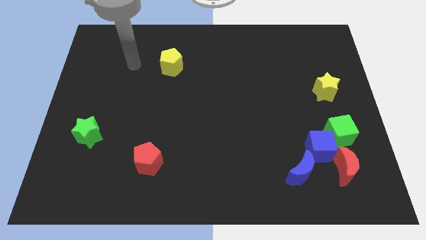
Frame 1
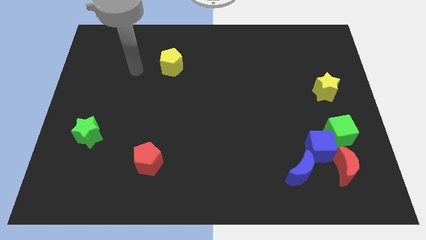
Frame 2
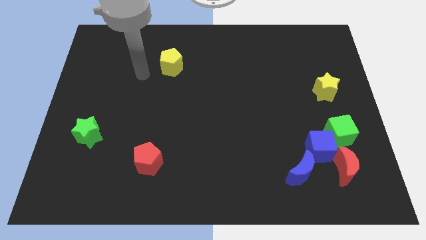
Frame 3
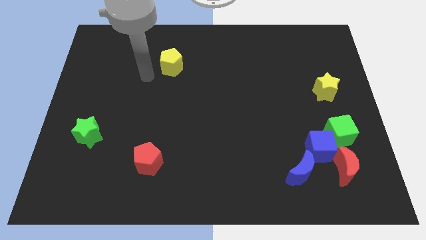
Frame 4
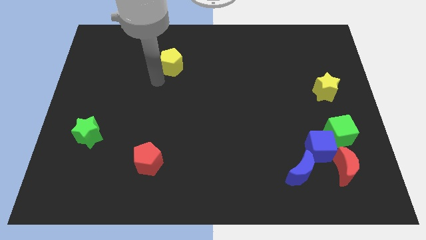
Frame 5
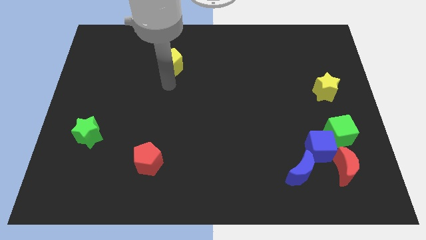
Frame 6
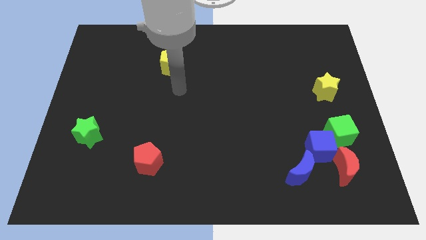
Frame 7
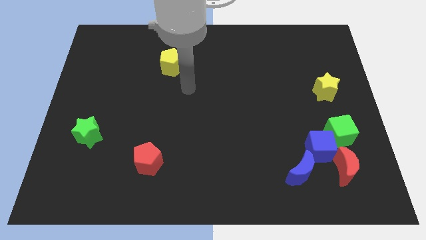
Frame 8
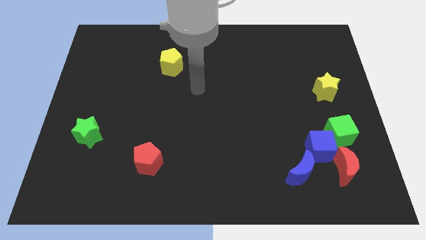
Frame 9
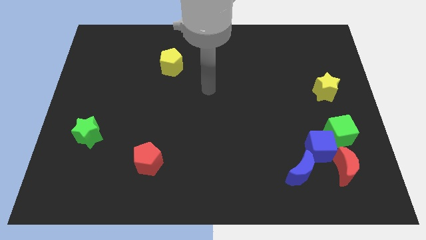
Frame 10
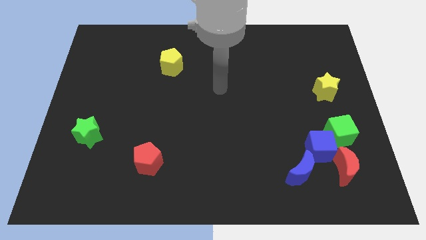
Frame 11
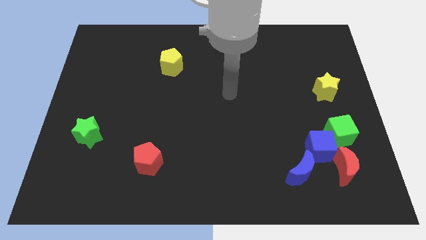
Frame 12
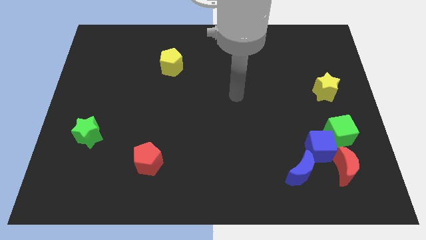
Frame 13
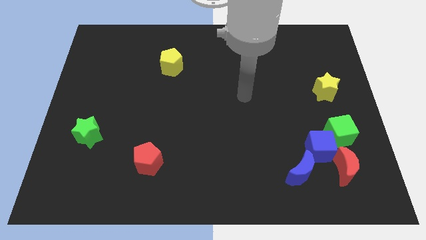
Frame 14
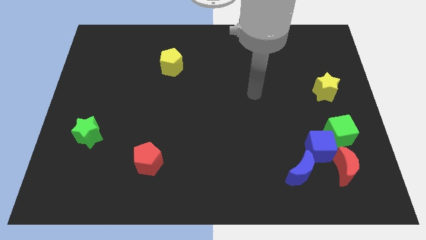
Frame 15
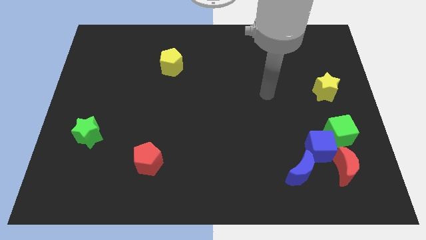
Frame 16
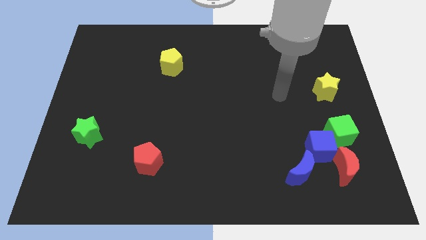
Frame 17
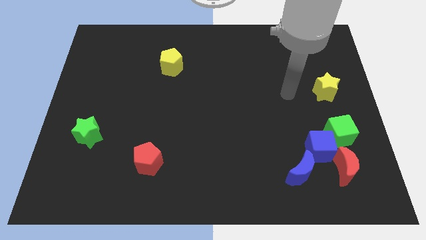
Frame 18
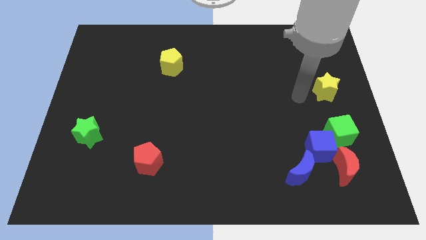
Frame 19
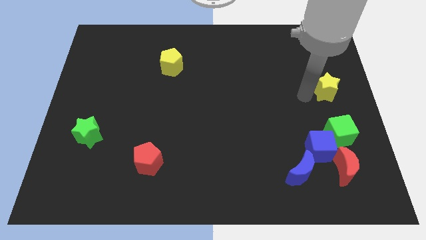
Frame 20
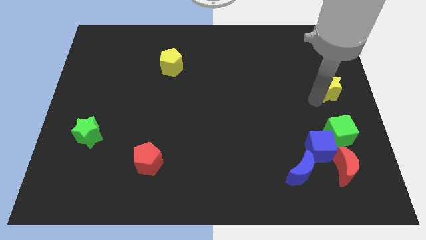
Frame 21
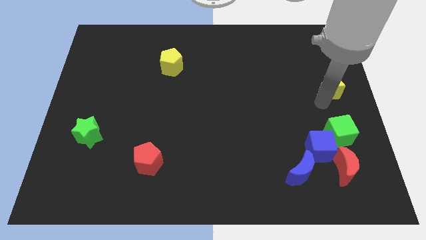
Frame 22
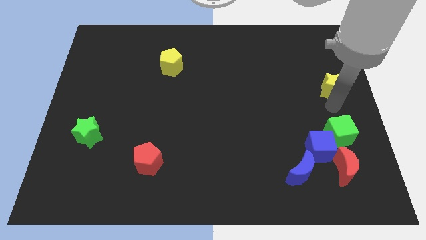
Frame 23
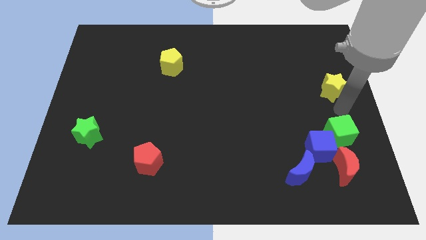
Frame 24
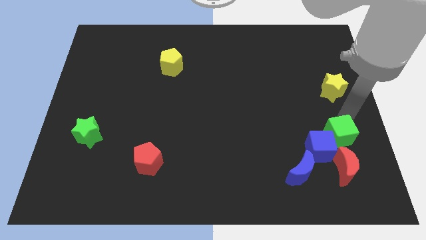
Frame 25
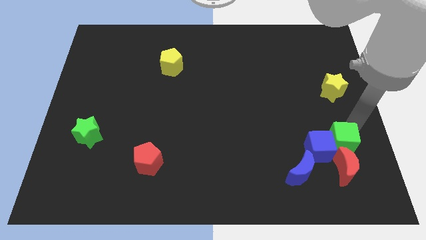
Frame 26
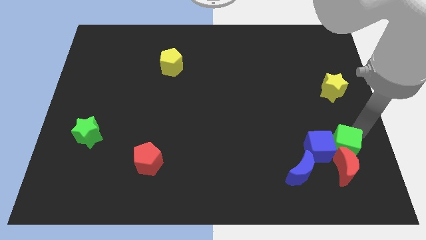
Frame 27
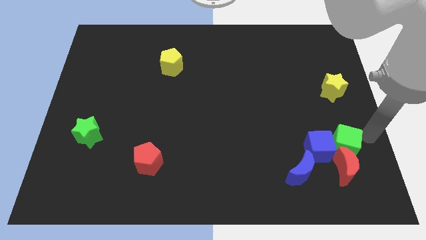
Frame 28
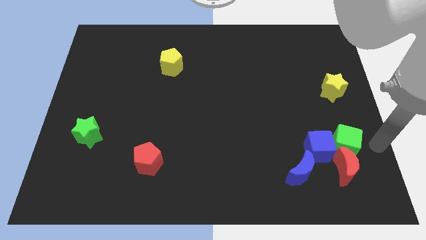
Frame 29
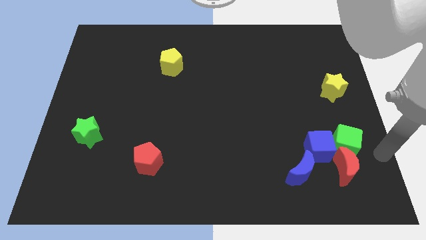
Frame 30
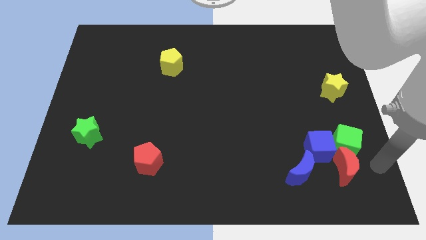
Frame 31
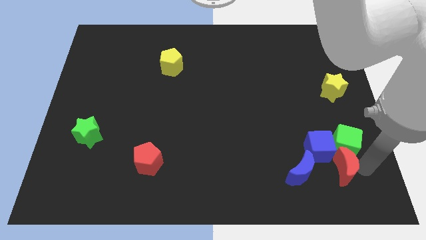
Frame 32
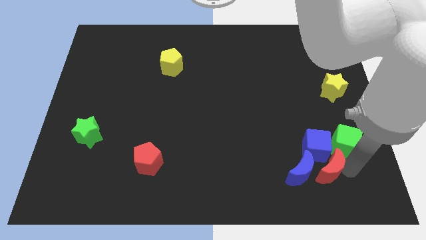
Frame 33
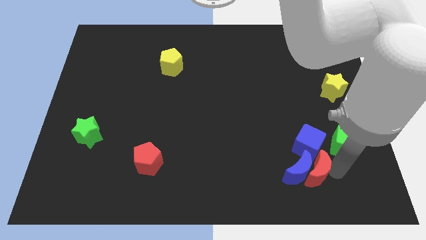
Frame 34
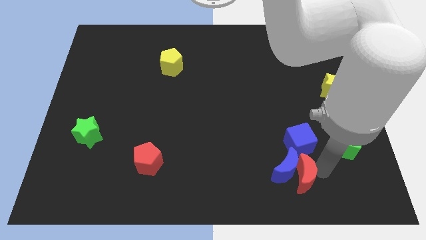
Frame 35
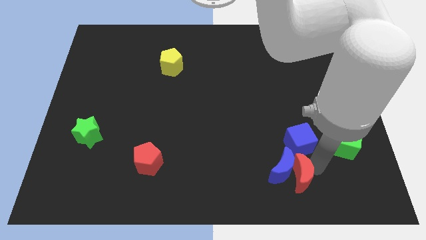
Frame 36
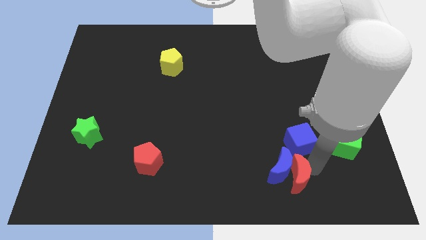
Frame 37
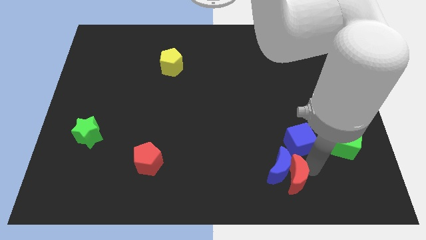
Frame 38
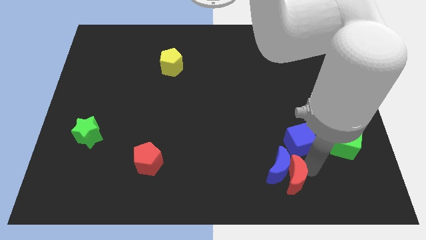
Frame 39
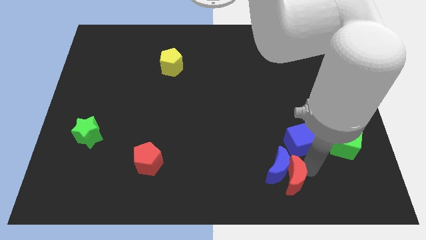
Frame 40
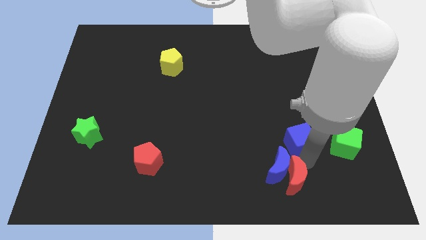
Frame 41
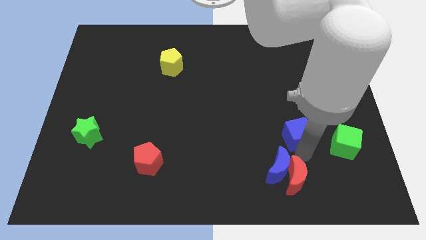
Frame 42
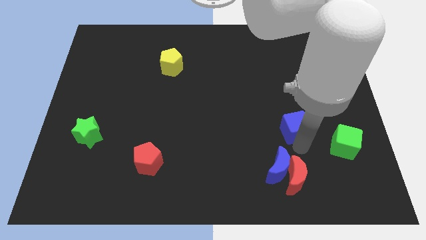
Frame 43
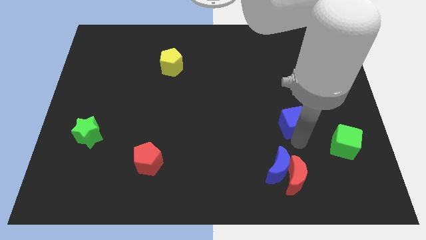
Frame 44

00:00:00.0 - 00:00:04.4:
separate the blue cube from the green cube, red moon, and blue moon

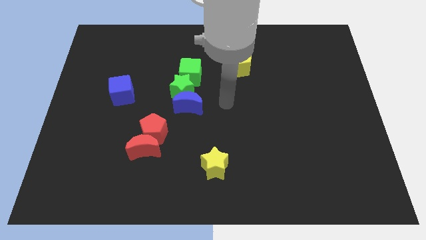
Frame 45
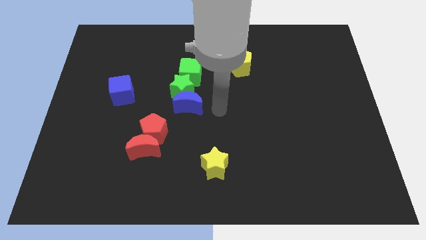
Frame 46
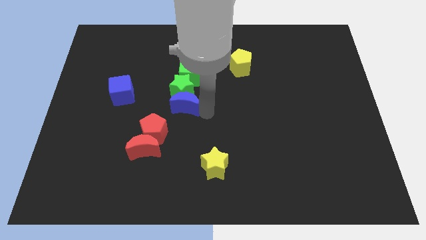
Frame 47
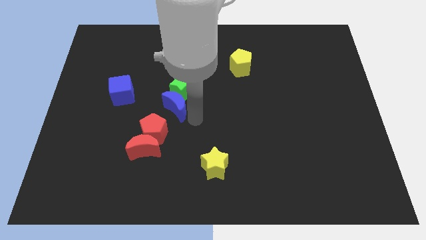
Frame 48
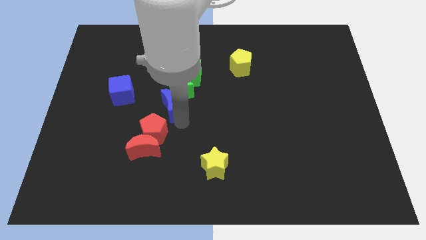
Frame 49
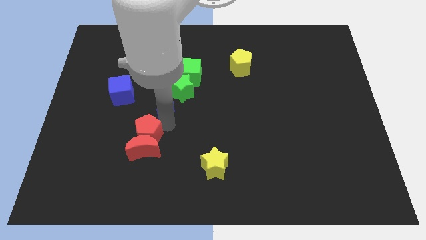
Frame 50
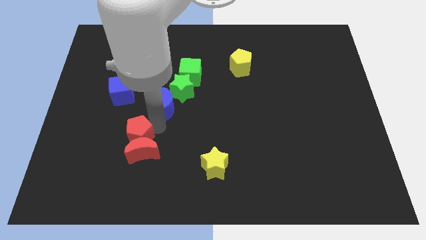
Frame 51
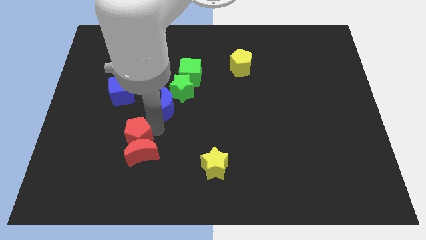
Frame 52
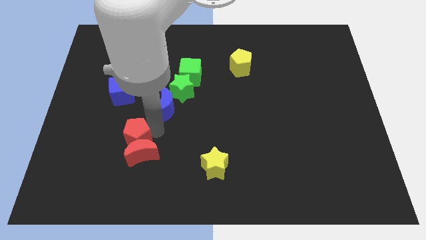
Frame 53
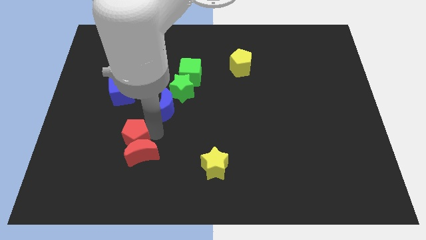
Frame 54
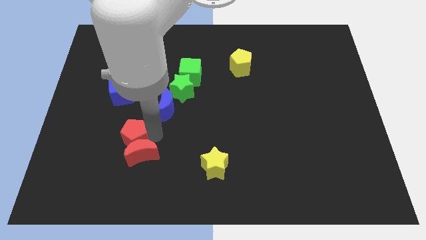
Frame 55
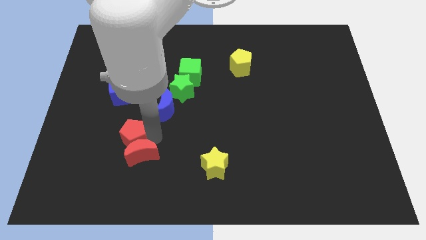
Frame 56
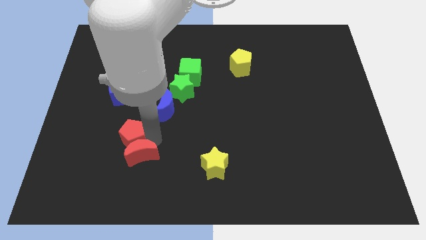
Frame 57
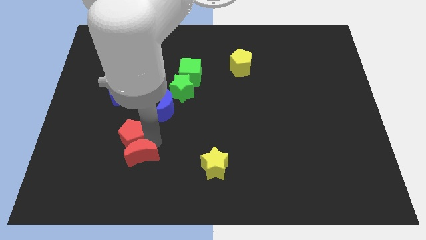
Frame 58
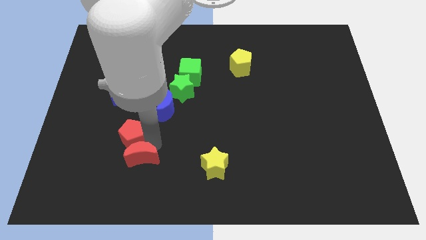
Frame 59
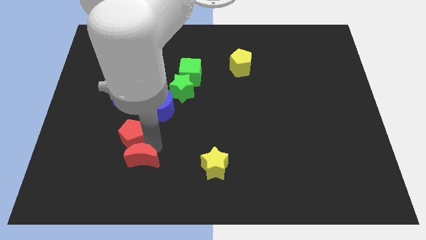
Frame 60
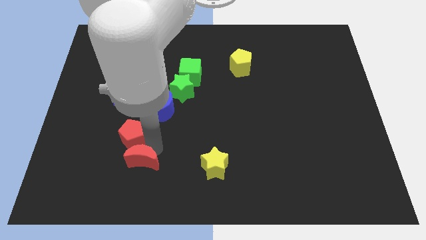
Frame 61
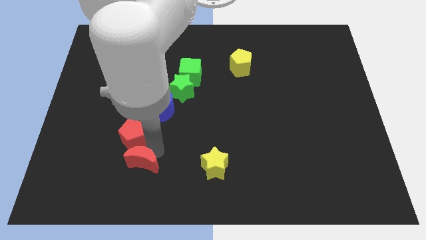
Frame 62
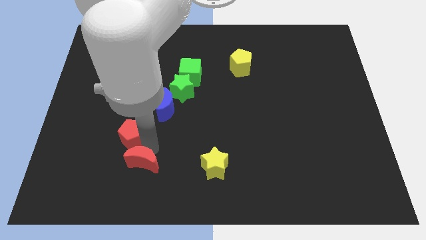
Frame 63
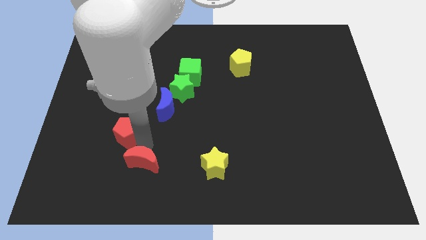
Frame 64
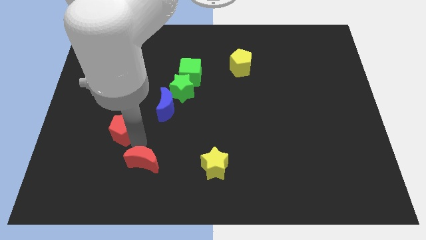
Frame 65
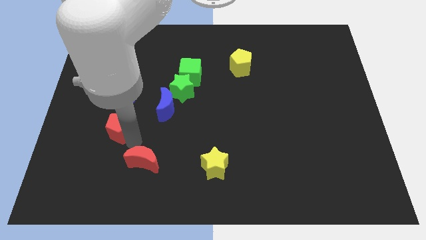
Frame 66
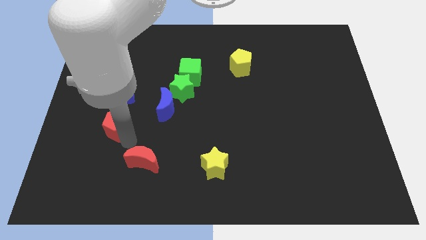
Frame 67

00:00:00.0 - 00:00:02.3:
move the red moon away from the red pentagon

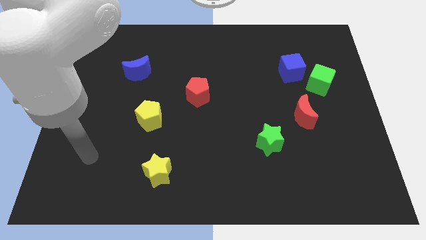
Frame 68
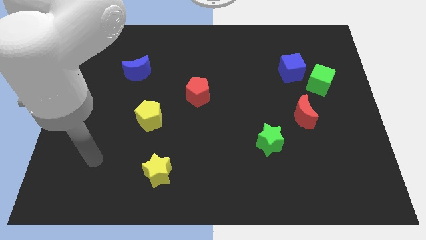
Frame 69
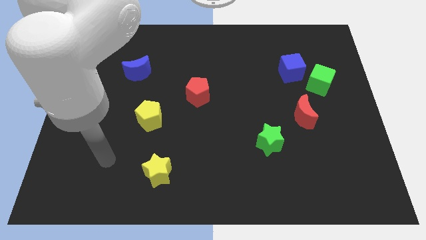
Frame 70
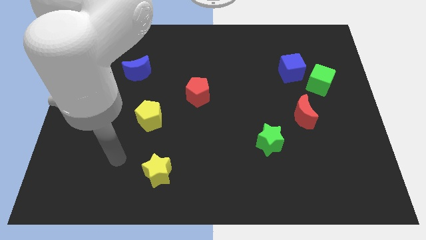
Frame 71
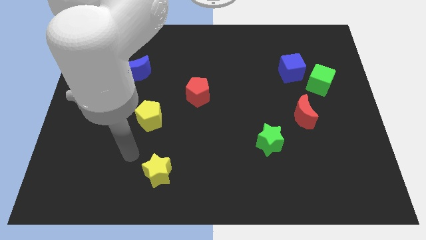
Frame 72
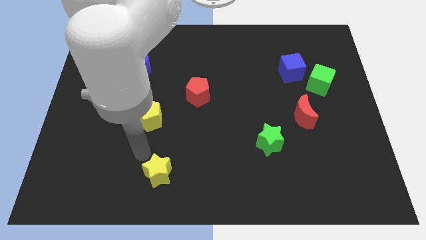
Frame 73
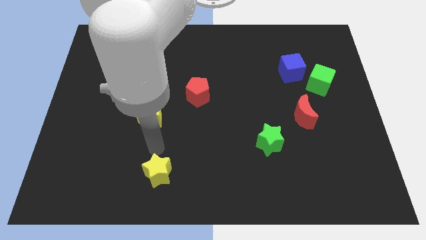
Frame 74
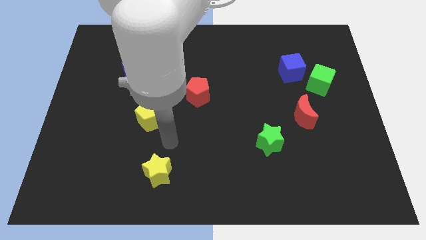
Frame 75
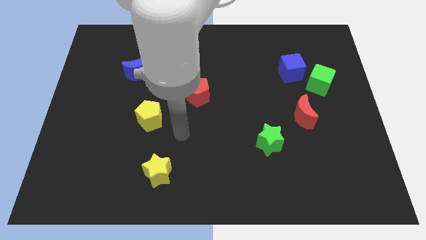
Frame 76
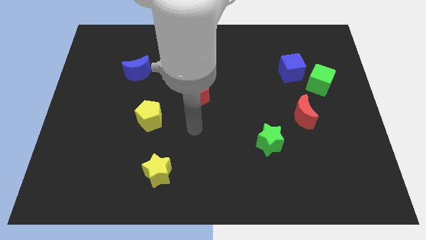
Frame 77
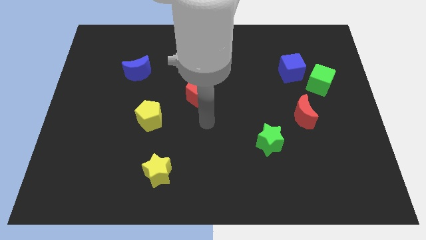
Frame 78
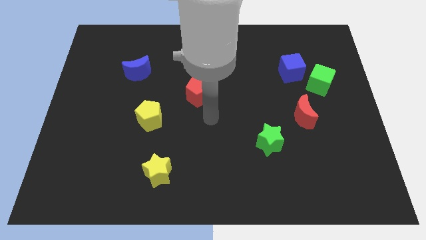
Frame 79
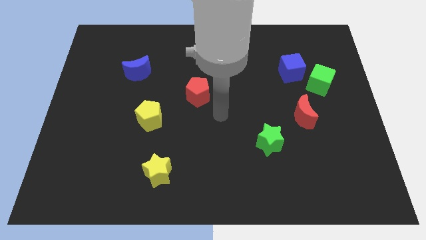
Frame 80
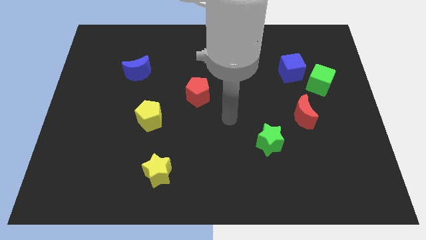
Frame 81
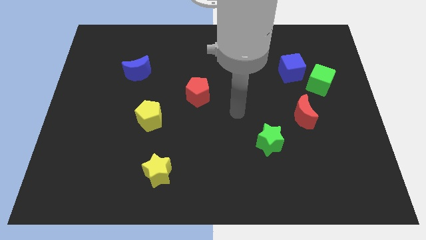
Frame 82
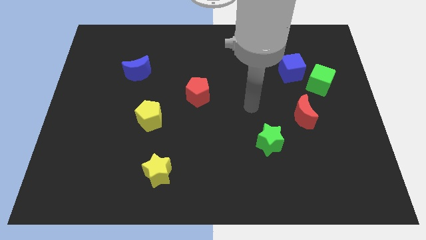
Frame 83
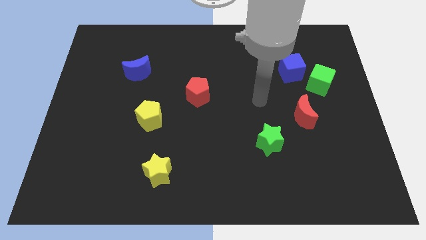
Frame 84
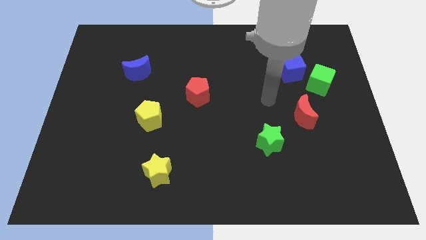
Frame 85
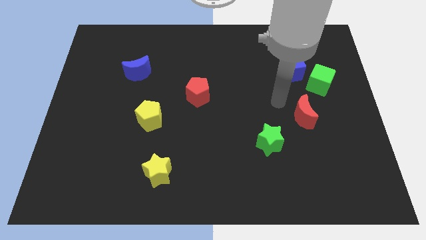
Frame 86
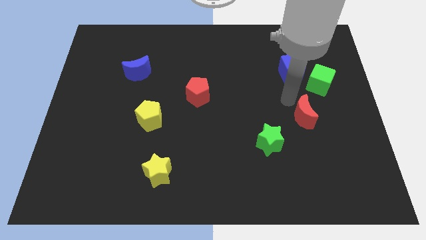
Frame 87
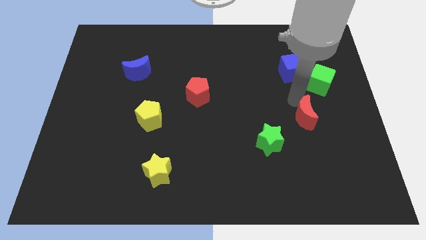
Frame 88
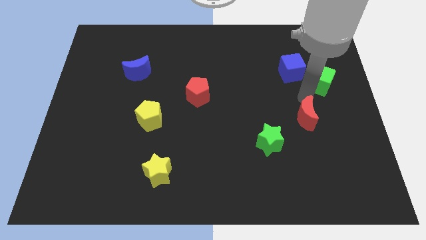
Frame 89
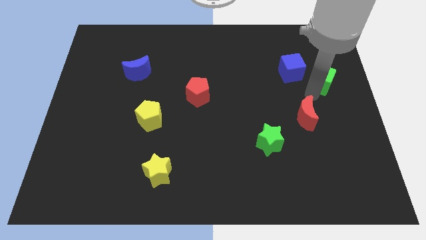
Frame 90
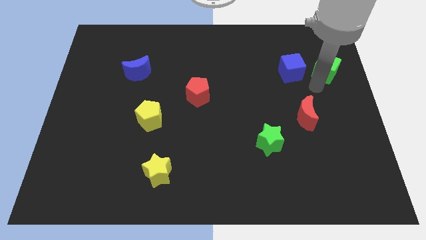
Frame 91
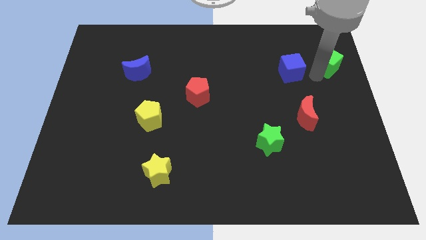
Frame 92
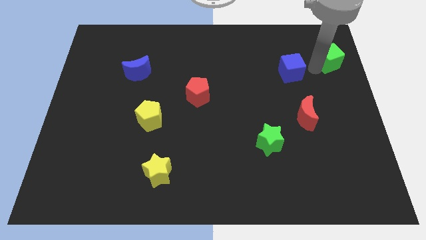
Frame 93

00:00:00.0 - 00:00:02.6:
move the blue cube away from the green cube

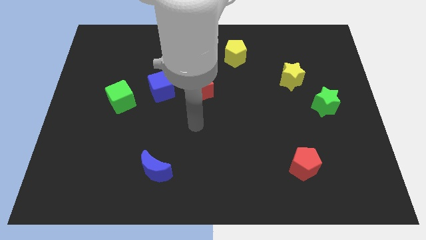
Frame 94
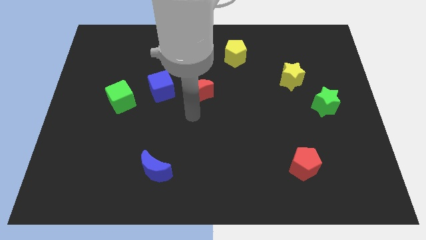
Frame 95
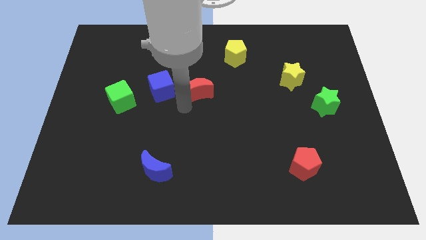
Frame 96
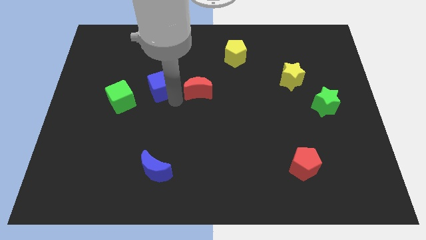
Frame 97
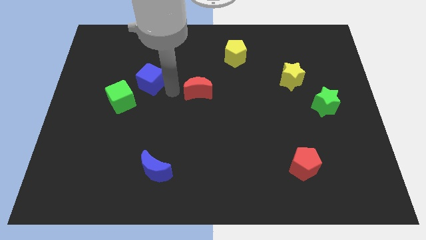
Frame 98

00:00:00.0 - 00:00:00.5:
separate the red moon from the blue cube
